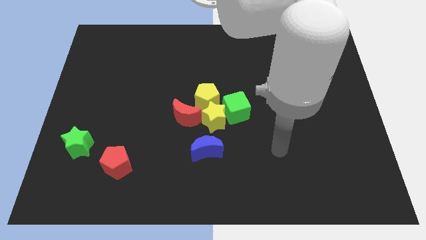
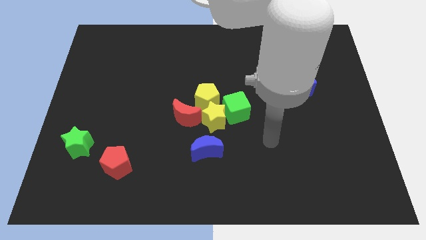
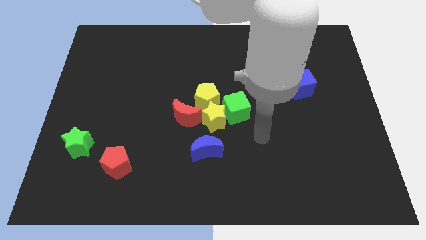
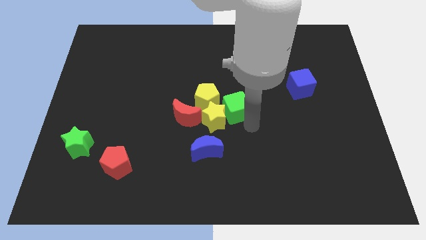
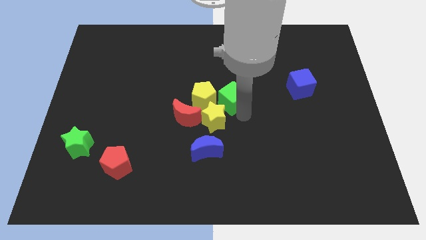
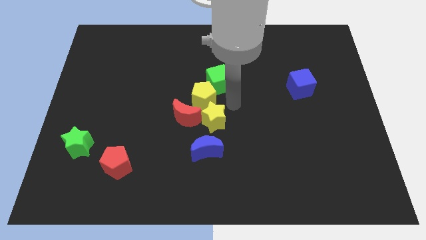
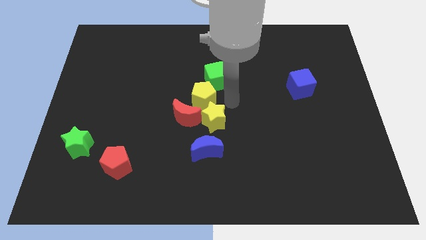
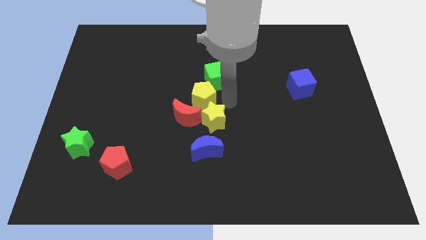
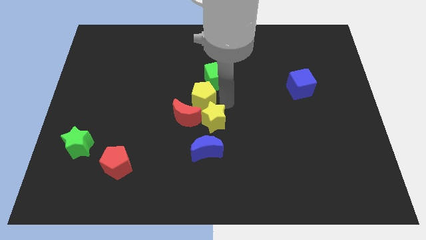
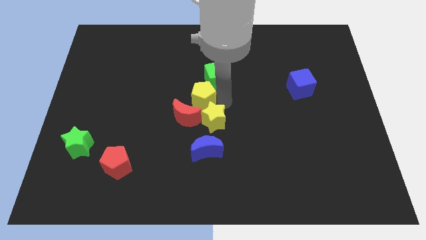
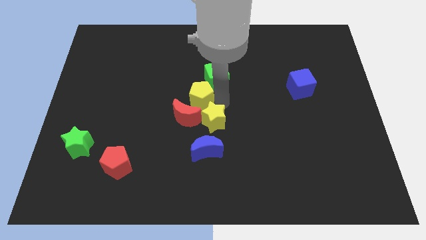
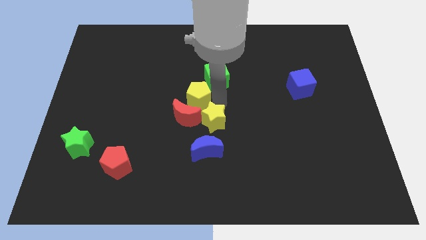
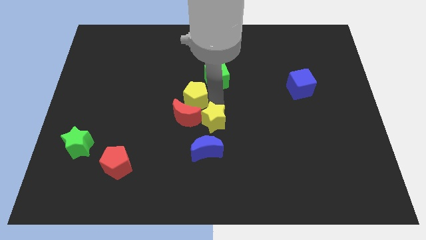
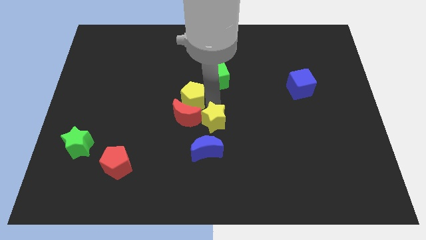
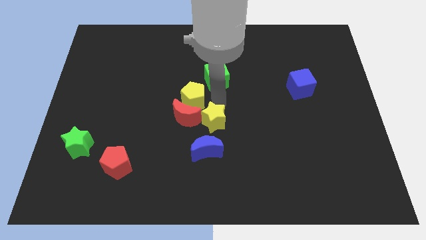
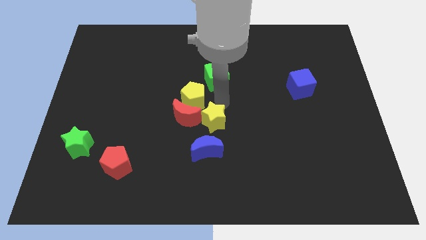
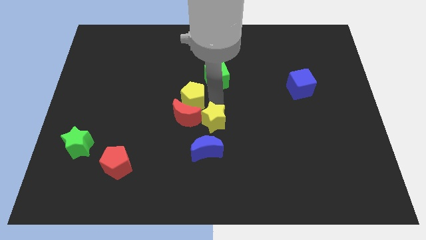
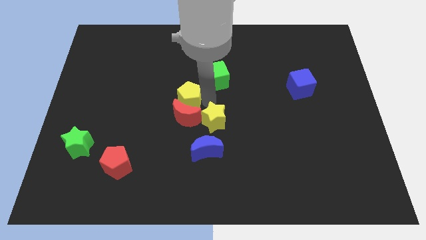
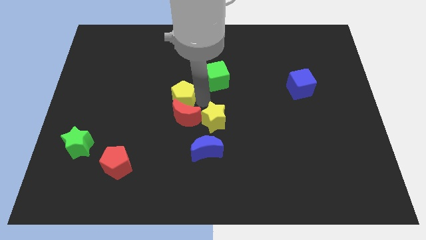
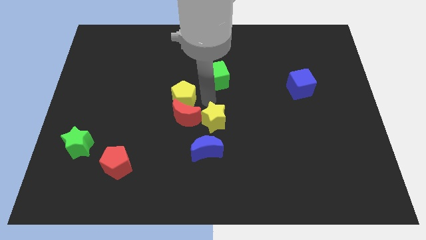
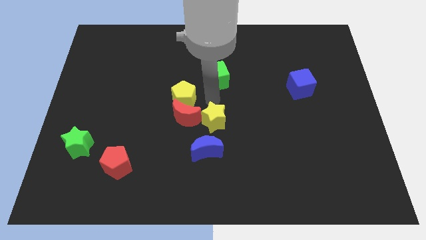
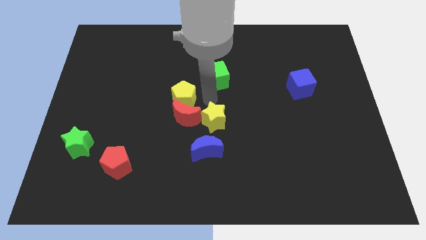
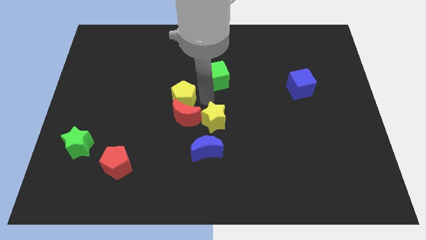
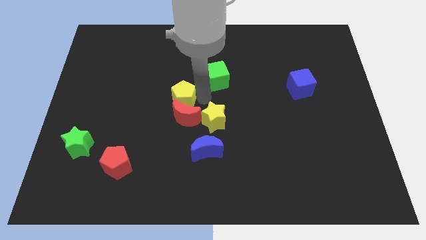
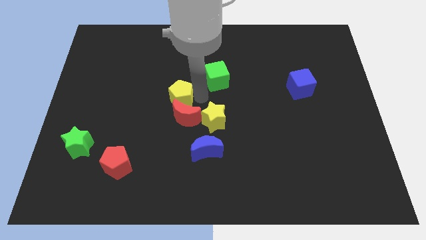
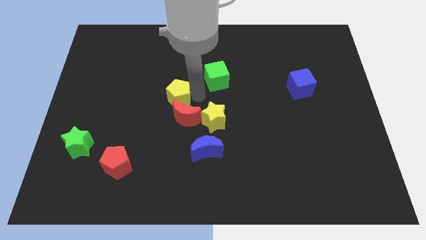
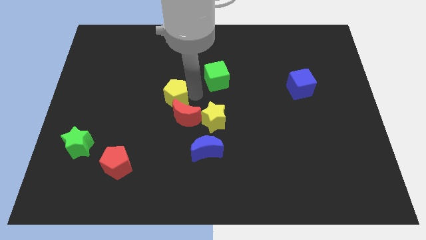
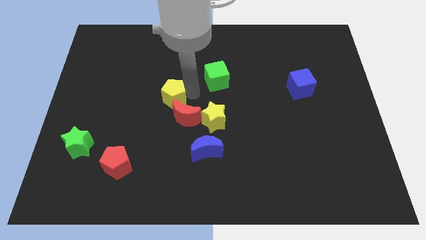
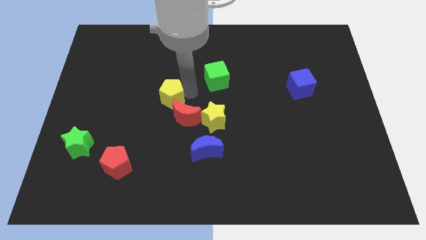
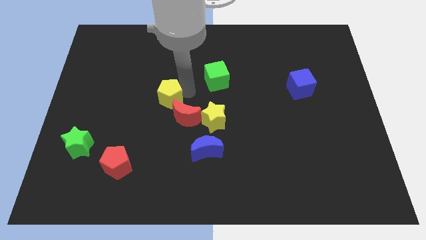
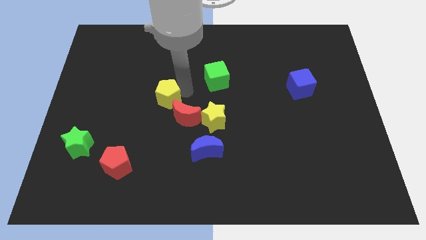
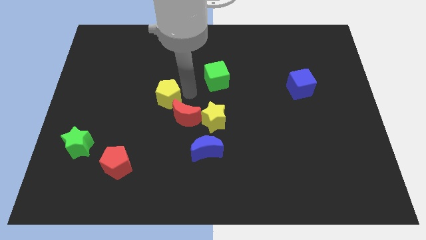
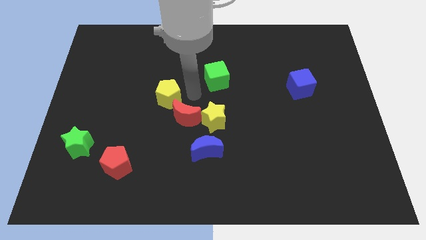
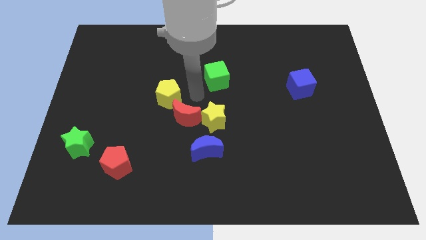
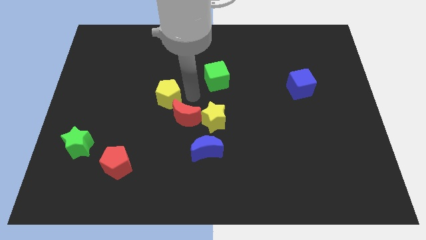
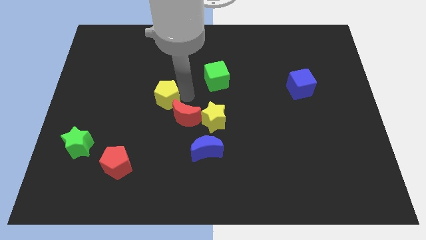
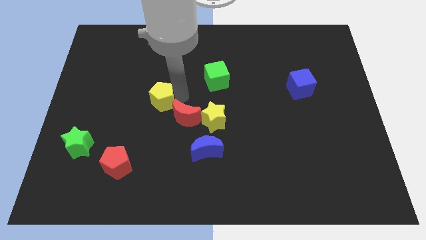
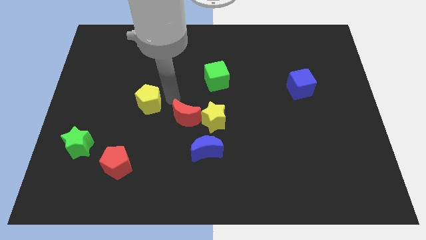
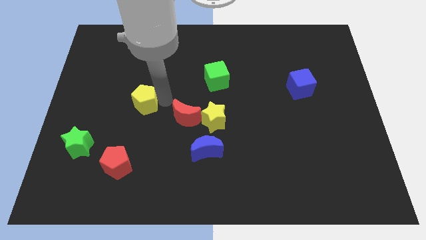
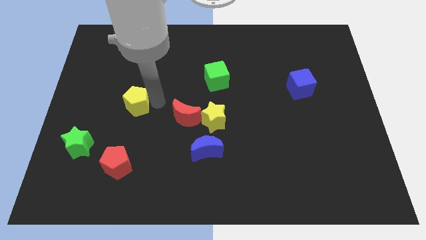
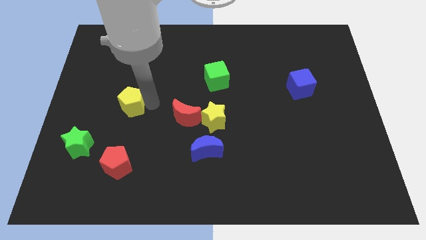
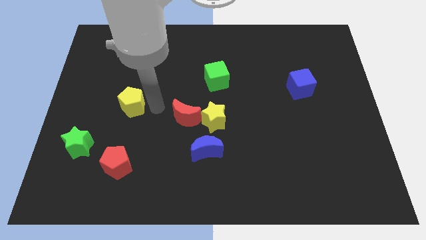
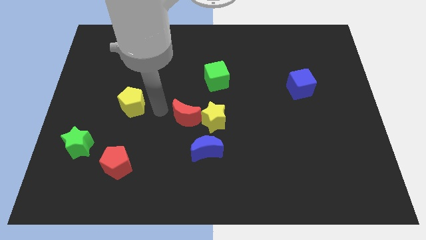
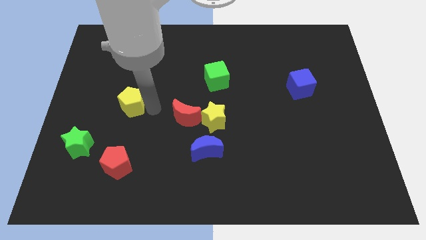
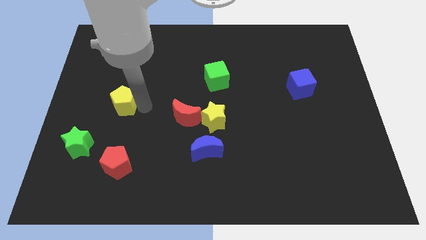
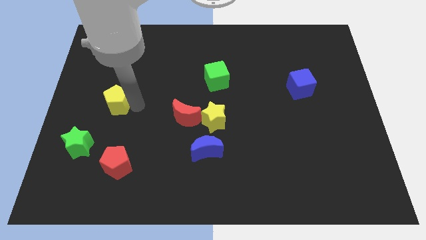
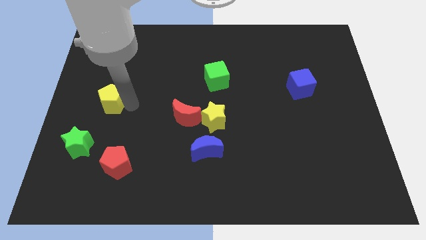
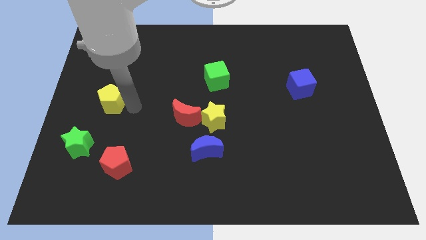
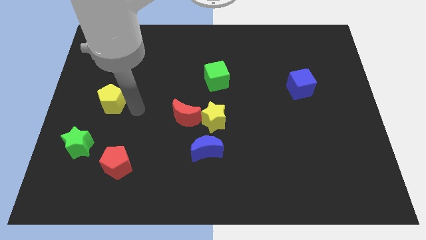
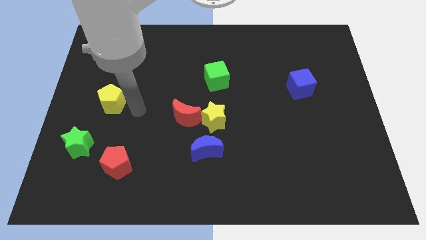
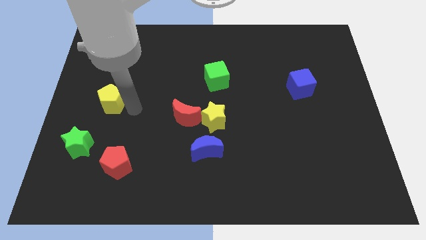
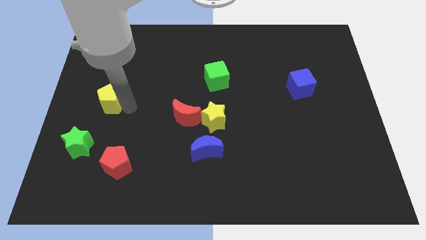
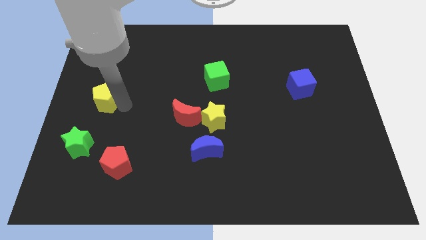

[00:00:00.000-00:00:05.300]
put the yellow pentagon to the center left

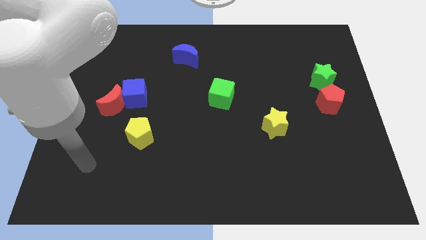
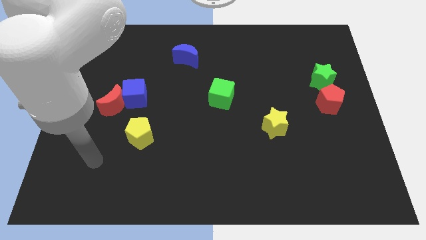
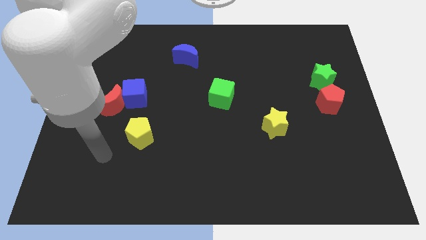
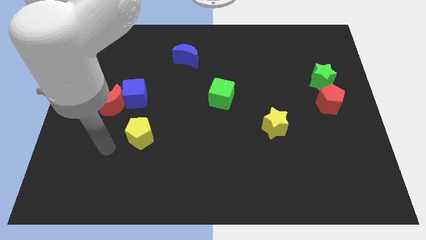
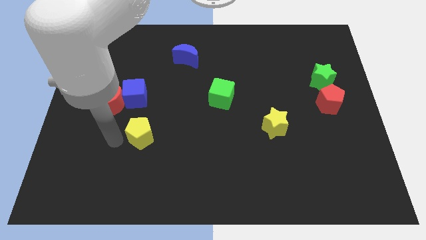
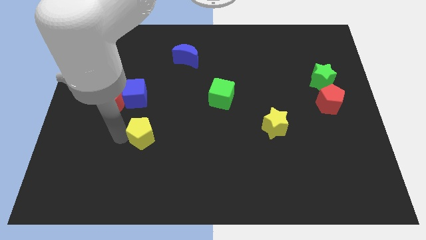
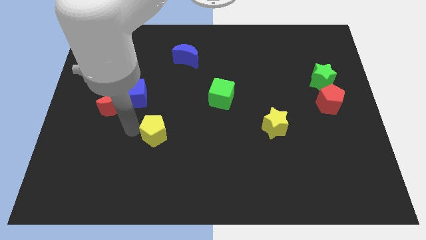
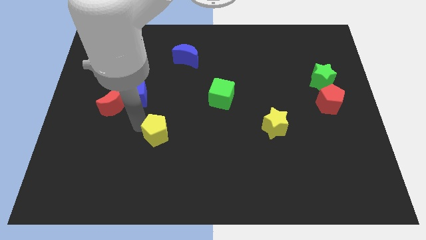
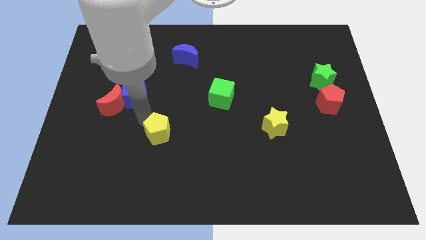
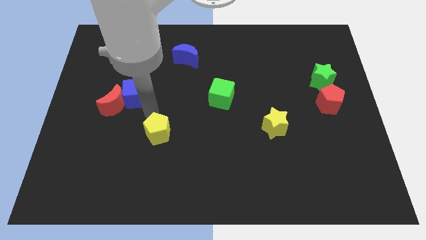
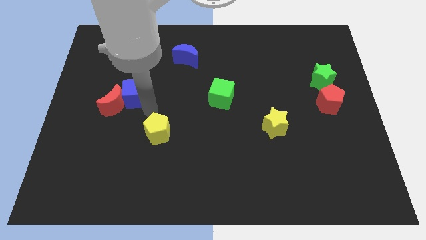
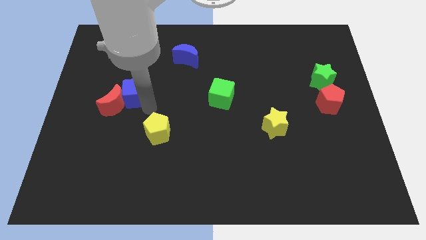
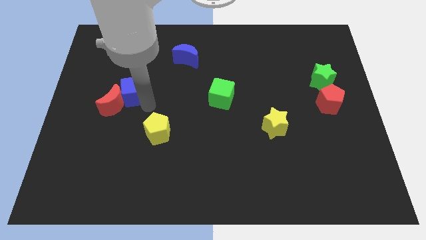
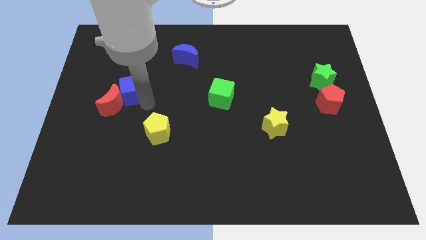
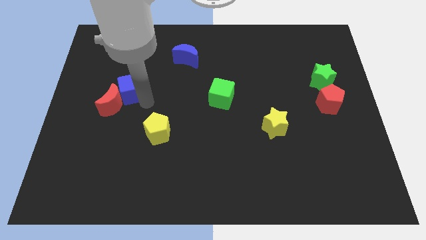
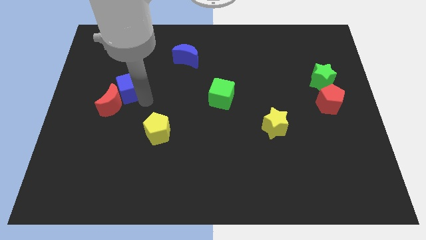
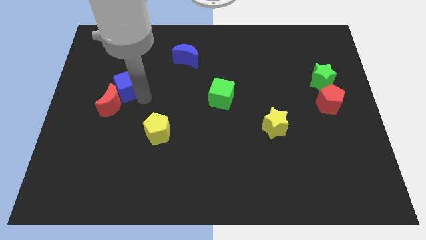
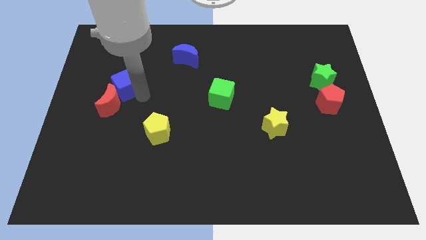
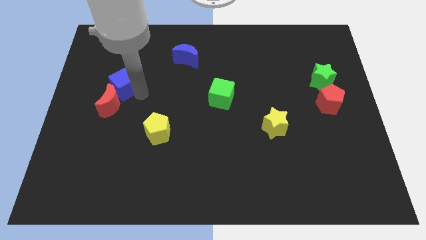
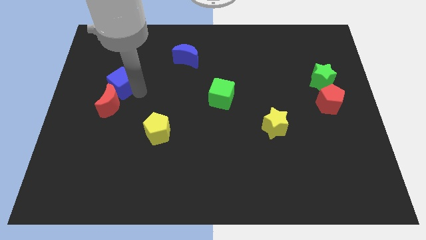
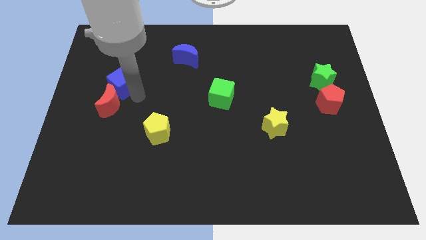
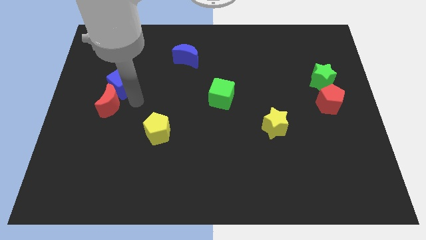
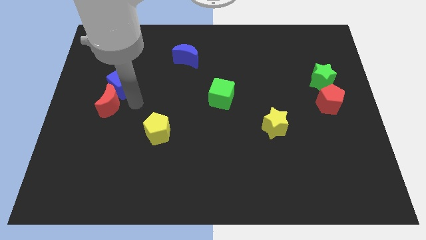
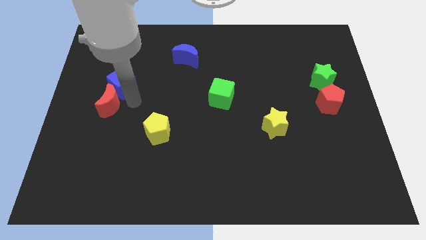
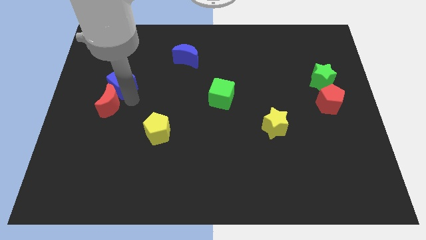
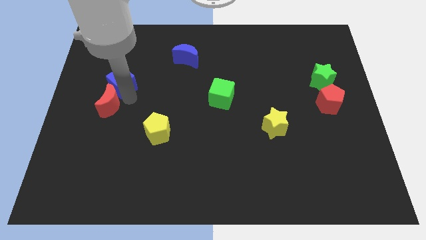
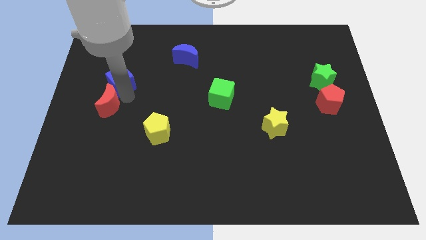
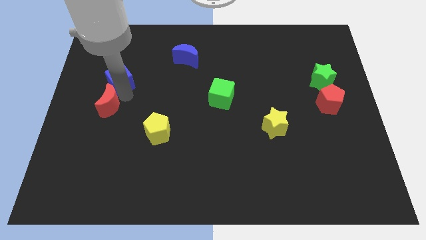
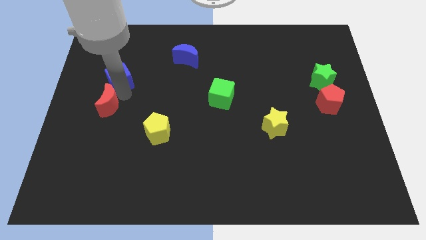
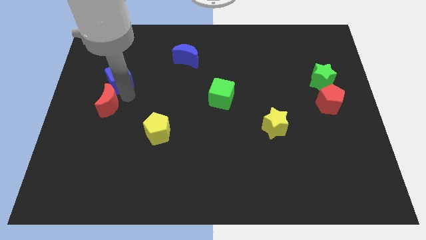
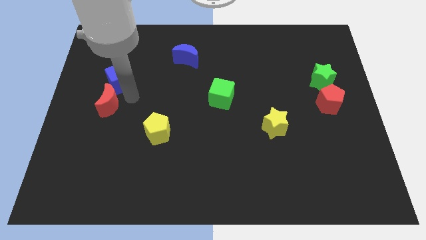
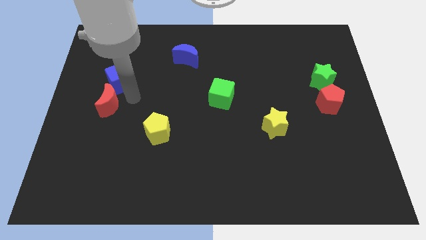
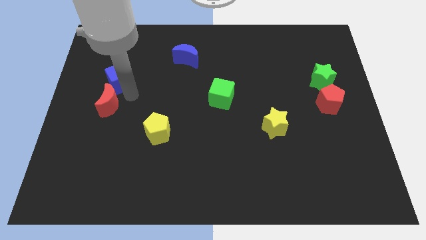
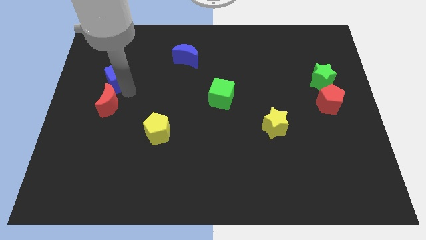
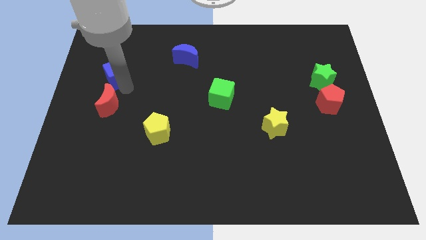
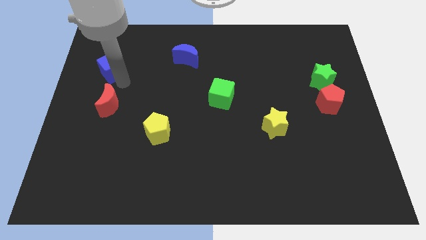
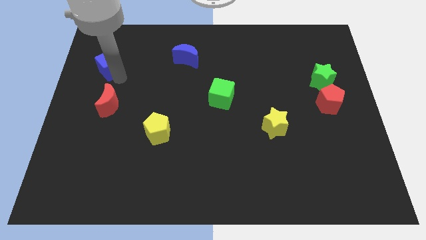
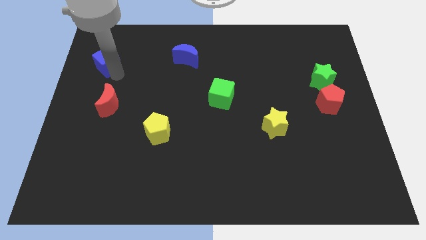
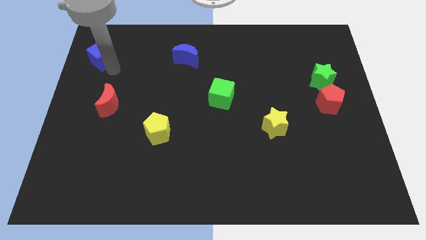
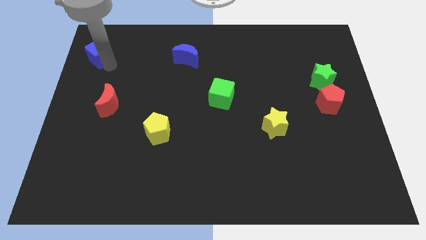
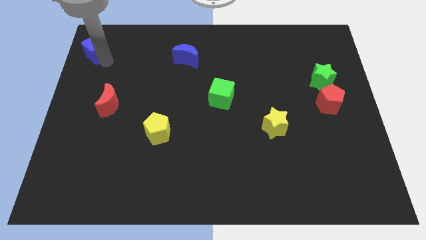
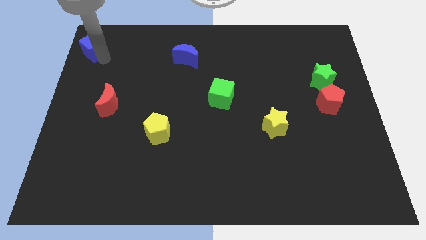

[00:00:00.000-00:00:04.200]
slide the blue cube to the upper left corner
